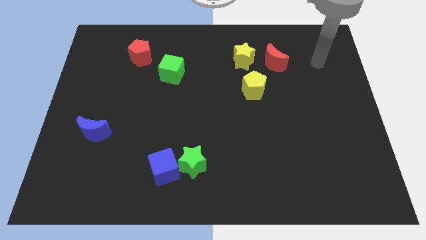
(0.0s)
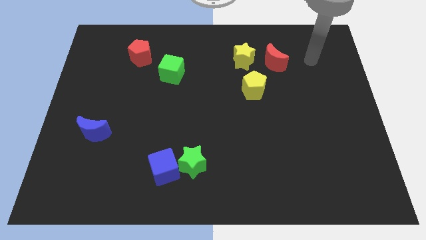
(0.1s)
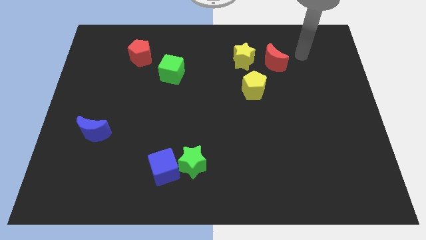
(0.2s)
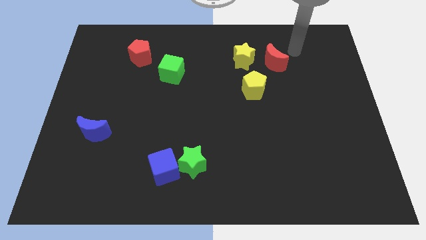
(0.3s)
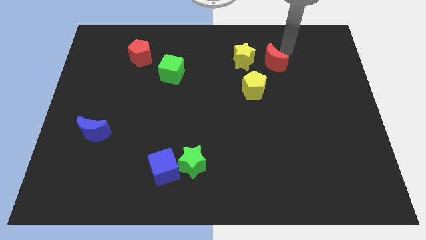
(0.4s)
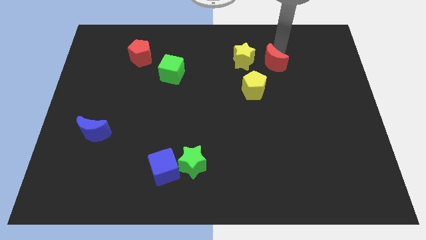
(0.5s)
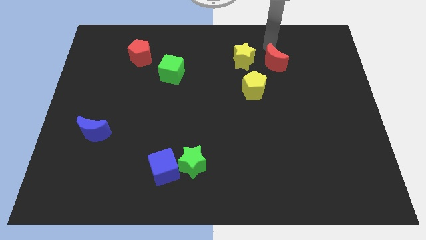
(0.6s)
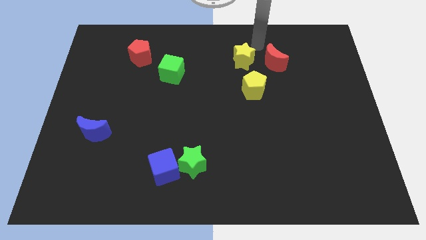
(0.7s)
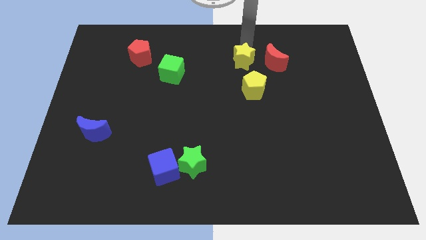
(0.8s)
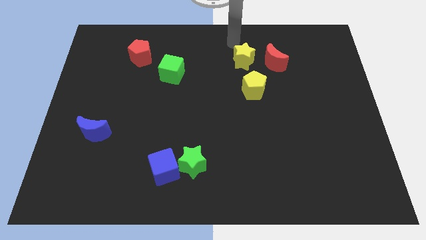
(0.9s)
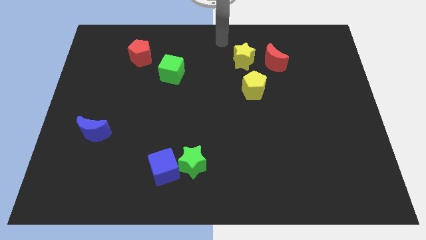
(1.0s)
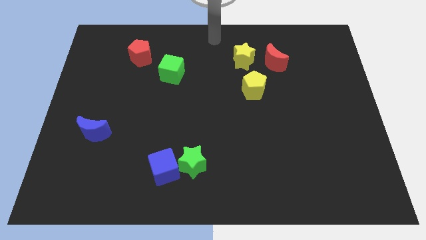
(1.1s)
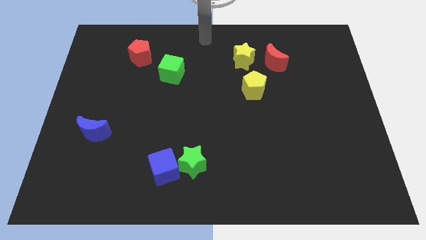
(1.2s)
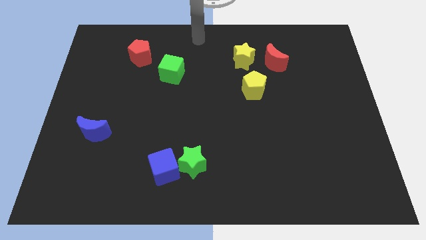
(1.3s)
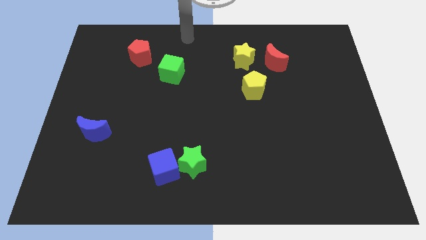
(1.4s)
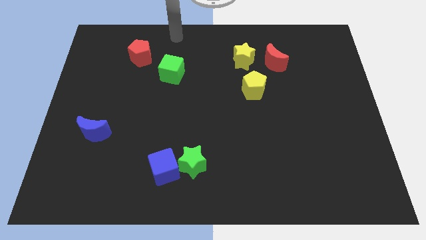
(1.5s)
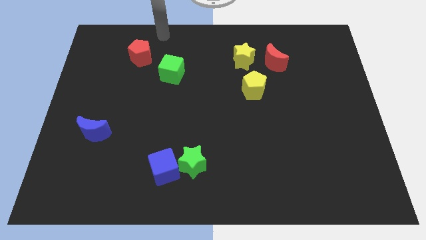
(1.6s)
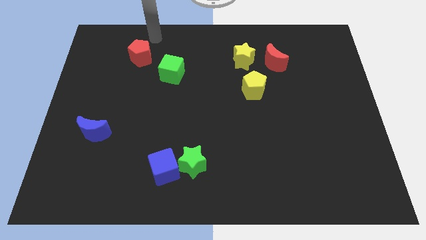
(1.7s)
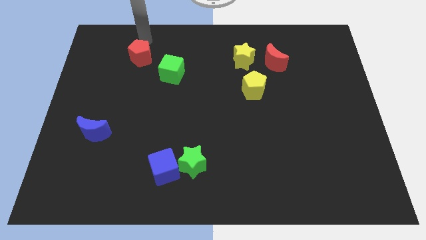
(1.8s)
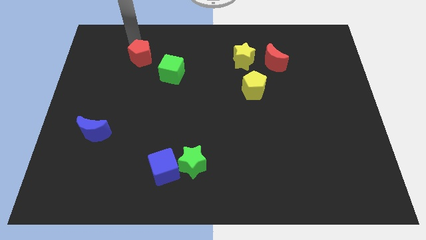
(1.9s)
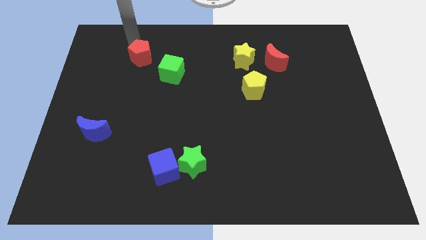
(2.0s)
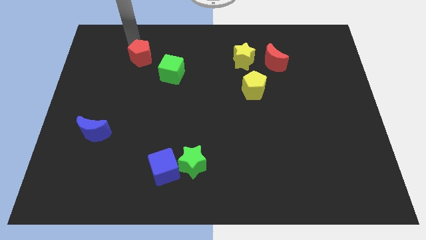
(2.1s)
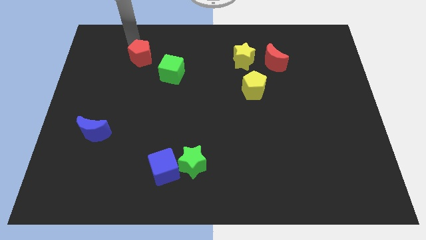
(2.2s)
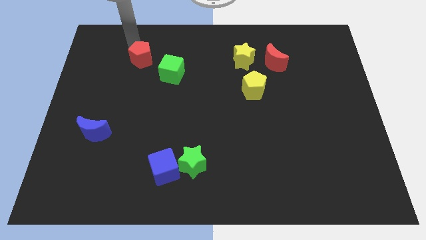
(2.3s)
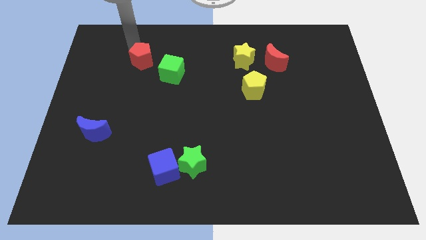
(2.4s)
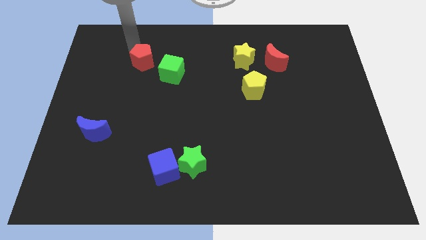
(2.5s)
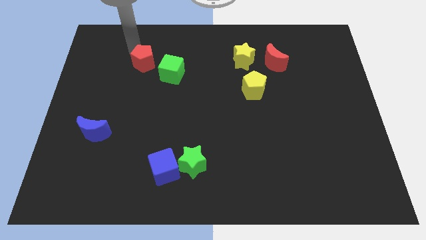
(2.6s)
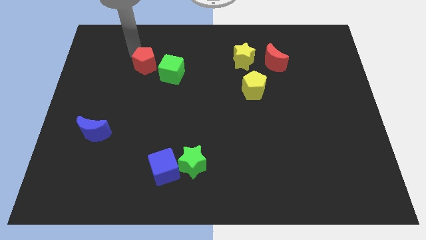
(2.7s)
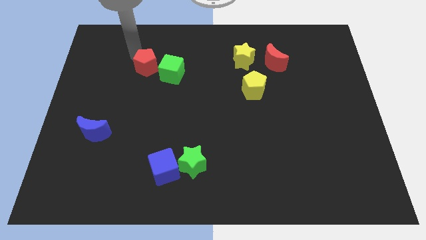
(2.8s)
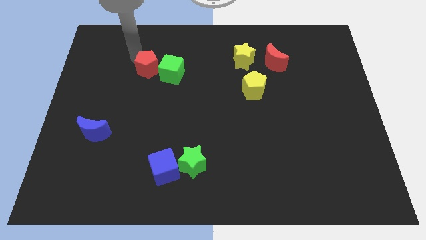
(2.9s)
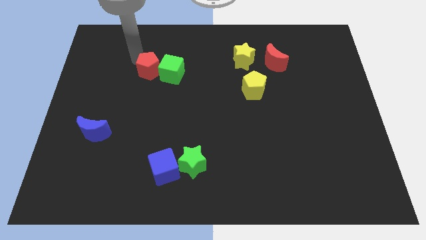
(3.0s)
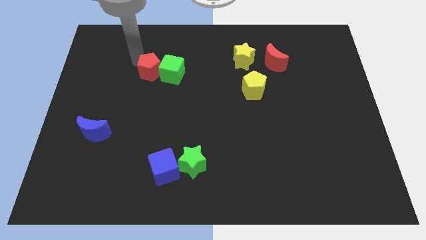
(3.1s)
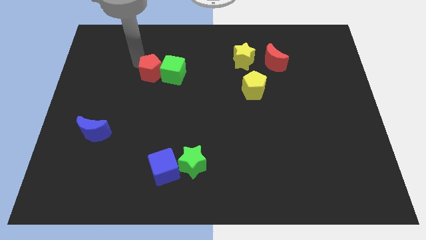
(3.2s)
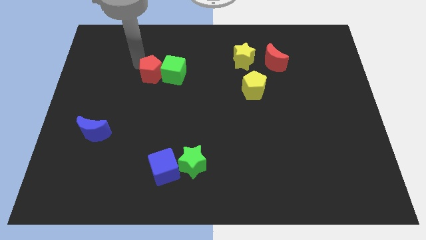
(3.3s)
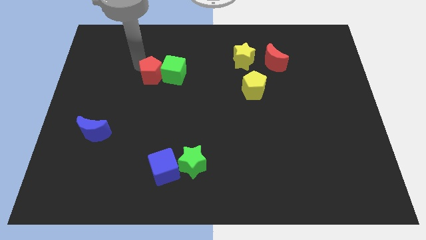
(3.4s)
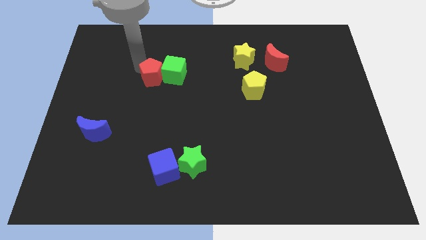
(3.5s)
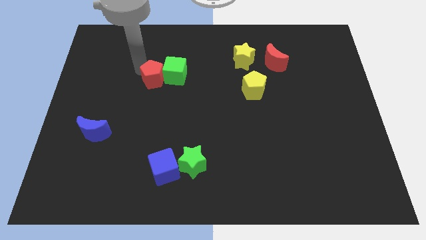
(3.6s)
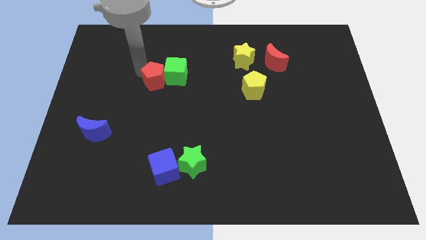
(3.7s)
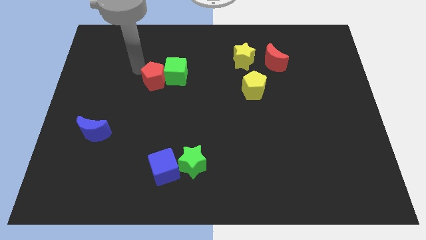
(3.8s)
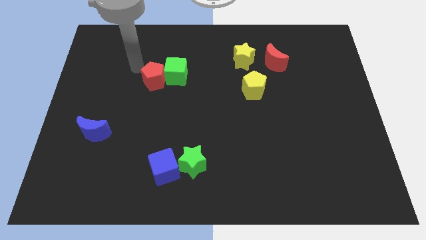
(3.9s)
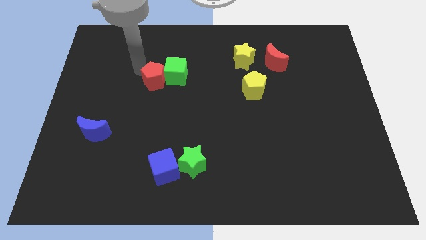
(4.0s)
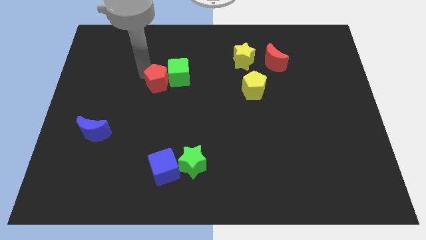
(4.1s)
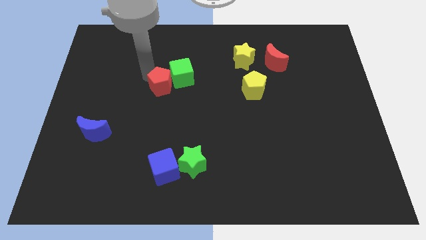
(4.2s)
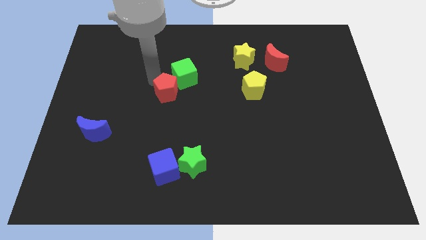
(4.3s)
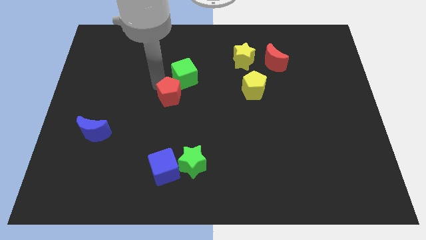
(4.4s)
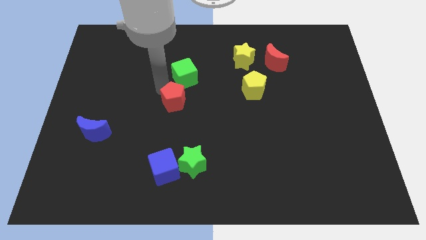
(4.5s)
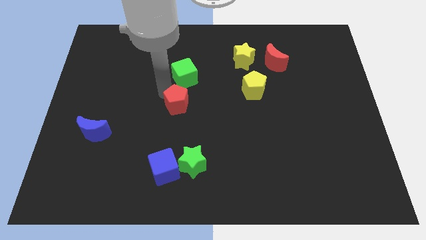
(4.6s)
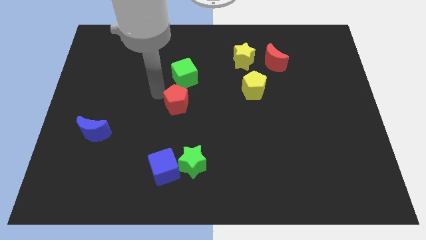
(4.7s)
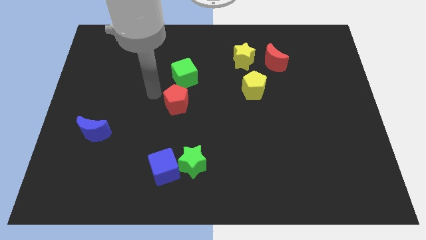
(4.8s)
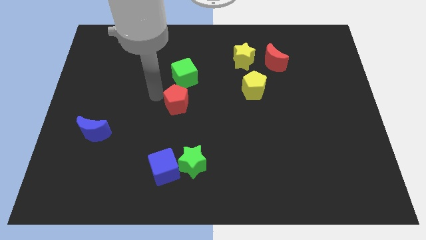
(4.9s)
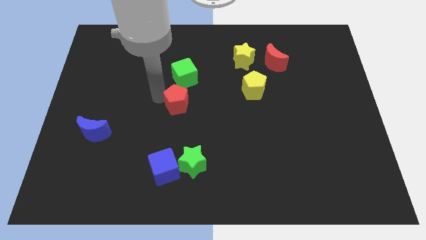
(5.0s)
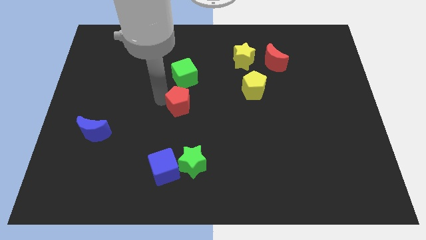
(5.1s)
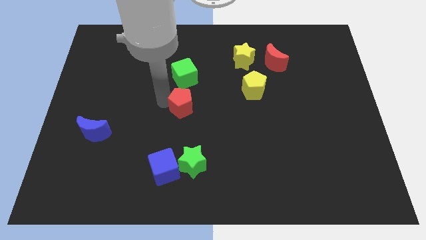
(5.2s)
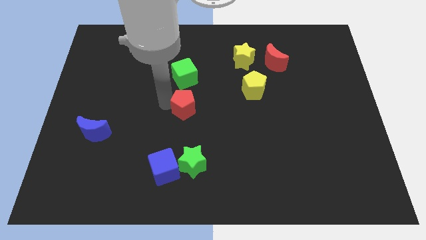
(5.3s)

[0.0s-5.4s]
push the red pentagon down and right

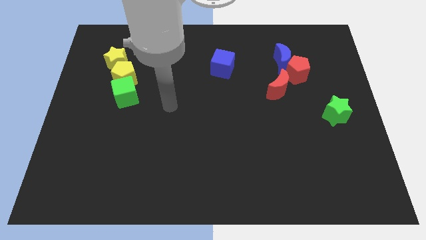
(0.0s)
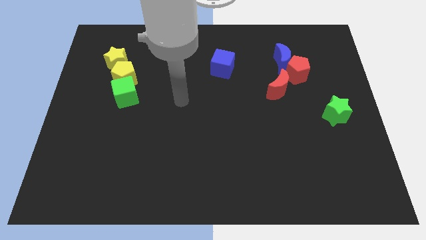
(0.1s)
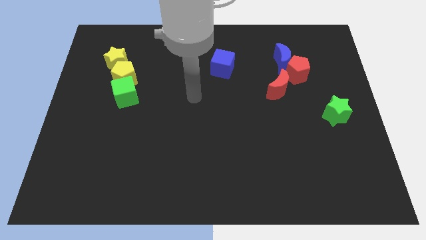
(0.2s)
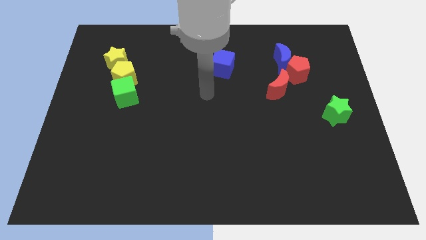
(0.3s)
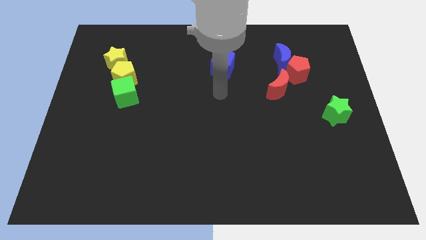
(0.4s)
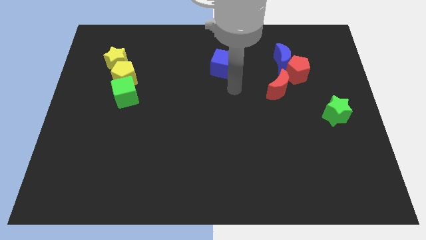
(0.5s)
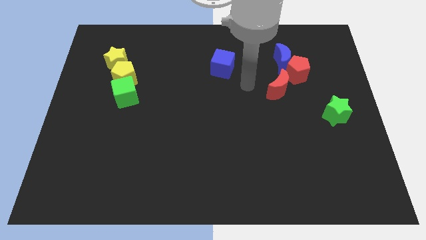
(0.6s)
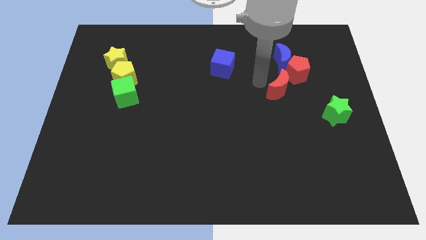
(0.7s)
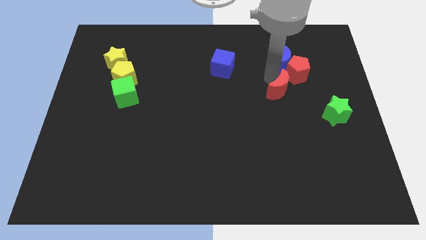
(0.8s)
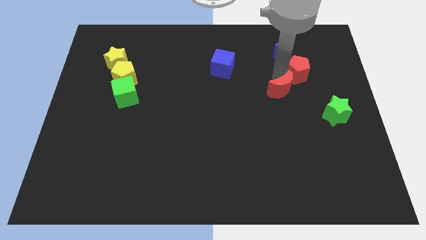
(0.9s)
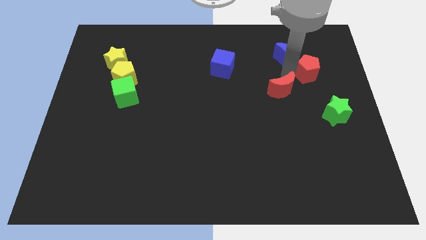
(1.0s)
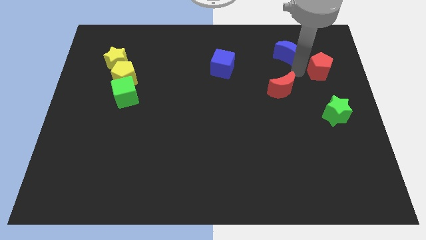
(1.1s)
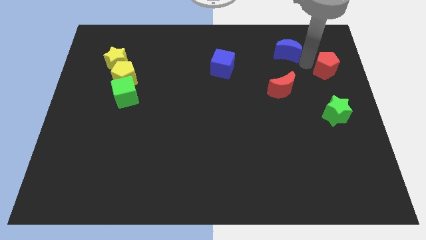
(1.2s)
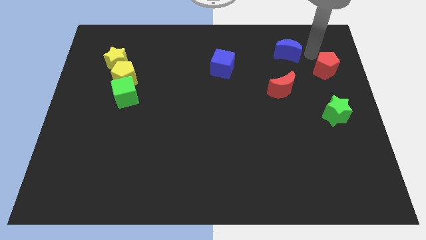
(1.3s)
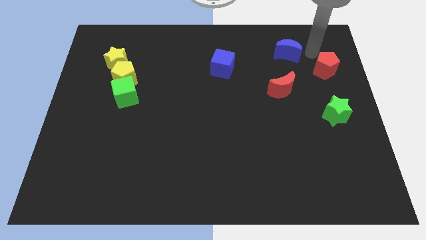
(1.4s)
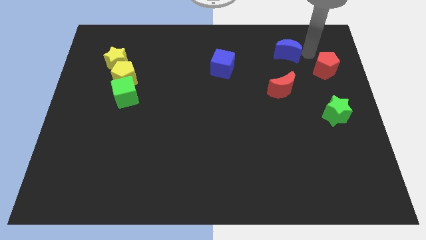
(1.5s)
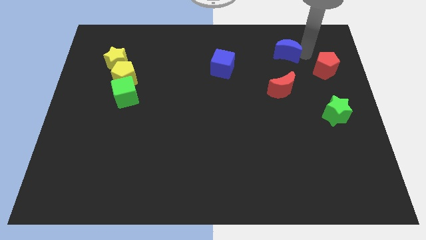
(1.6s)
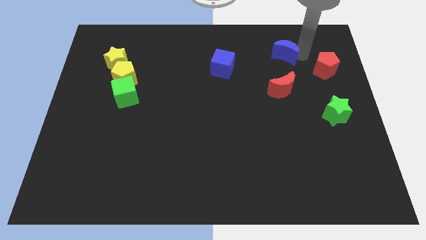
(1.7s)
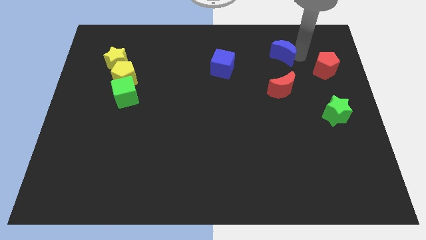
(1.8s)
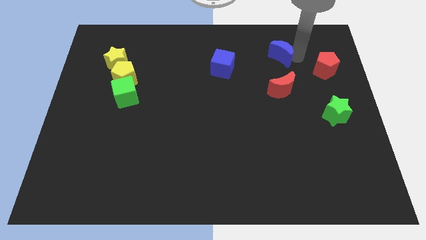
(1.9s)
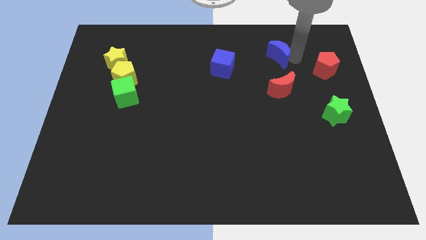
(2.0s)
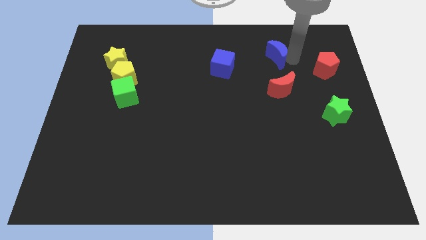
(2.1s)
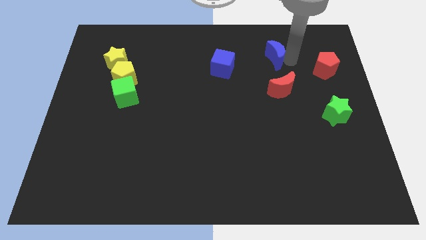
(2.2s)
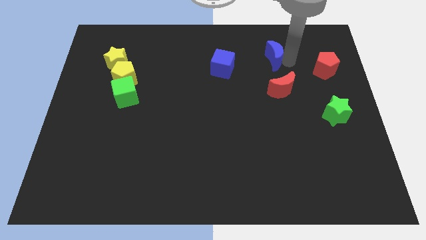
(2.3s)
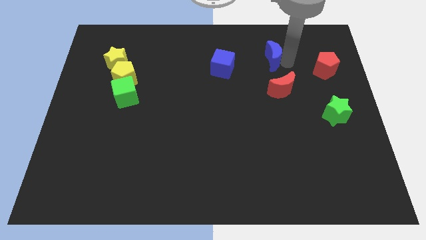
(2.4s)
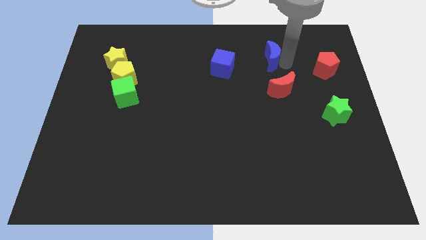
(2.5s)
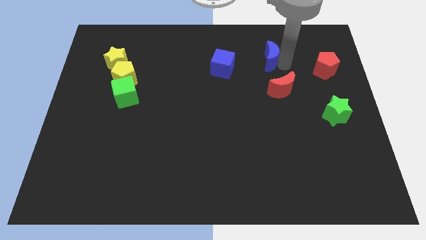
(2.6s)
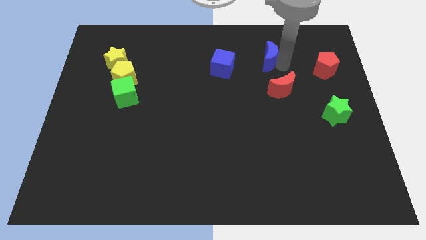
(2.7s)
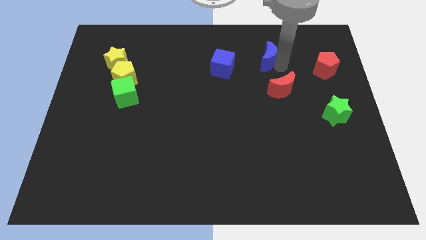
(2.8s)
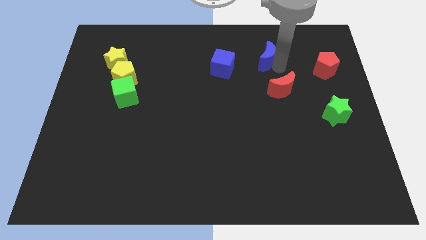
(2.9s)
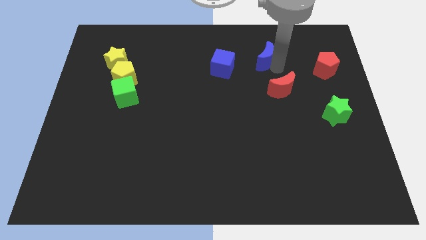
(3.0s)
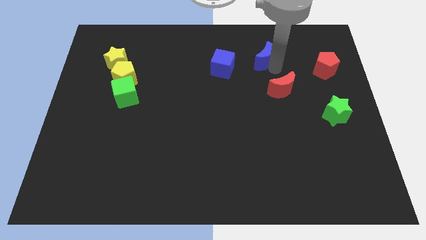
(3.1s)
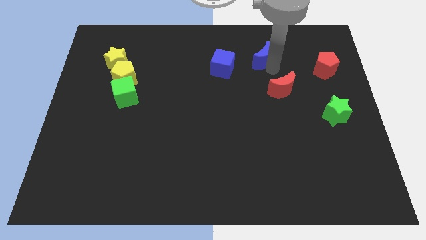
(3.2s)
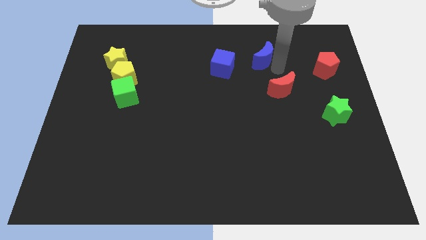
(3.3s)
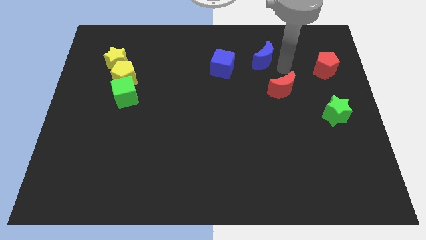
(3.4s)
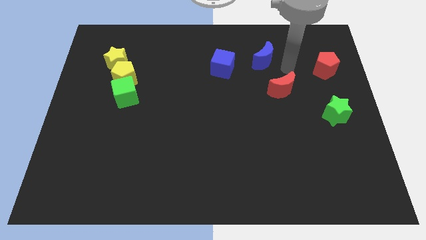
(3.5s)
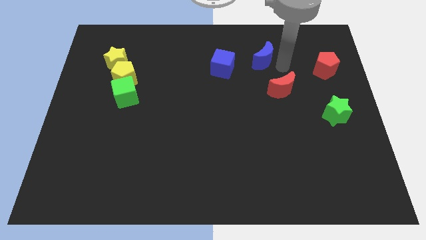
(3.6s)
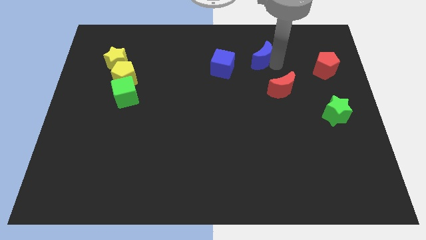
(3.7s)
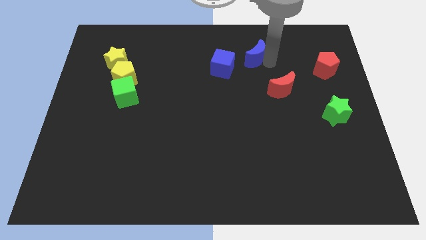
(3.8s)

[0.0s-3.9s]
slide the blue moon somewhat left
